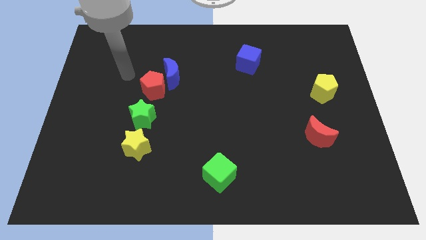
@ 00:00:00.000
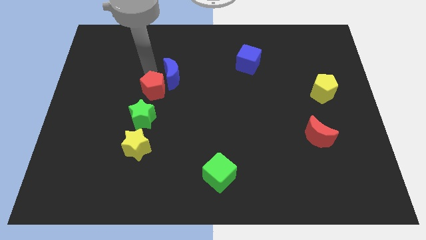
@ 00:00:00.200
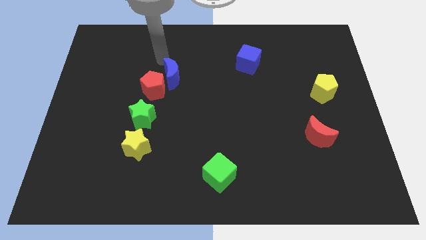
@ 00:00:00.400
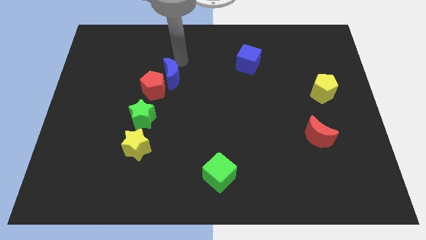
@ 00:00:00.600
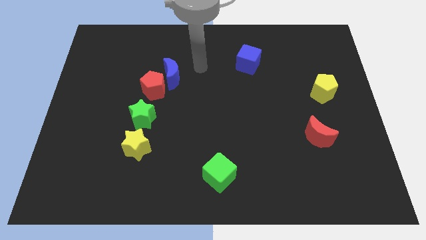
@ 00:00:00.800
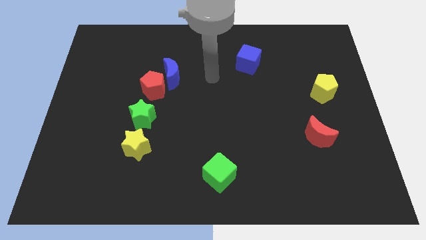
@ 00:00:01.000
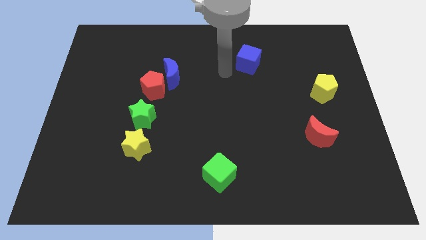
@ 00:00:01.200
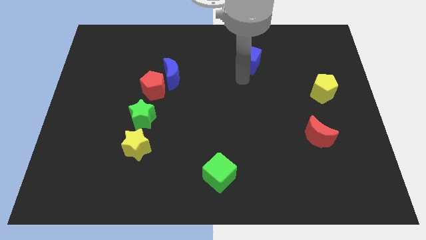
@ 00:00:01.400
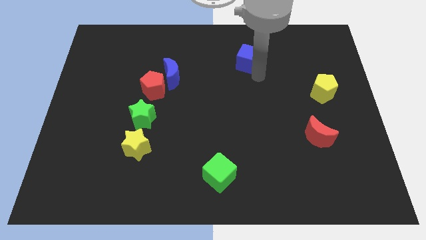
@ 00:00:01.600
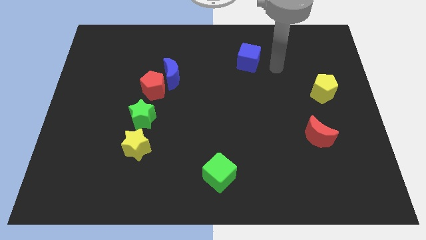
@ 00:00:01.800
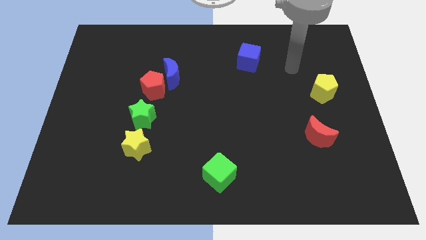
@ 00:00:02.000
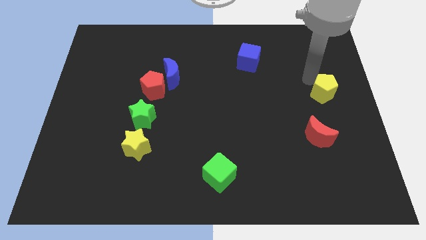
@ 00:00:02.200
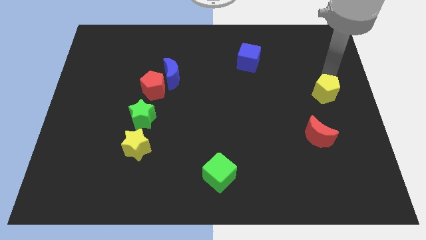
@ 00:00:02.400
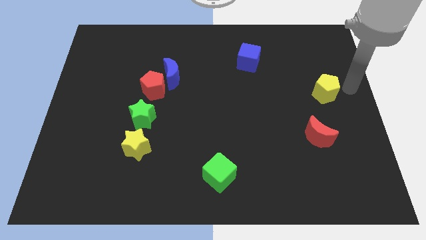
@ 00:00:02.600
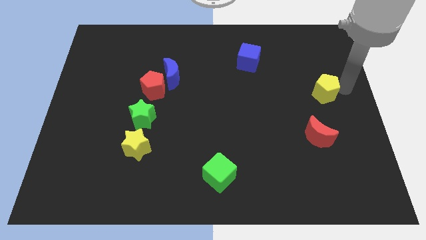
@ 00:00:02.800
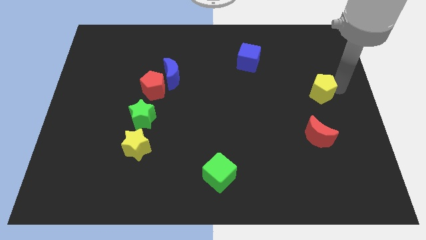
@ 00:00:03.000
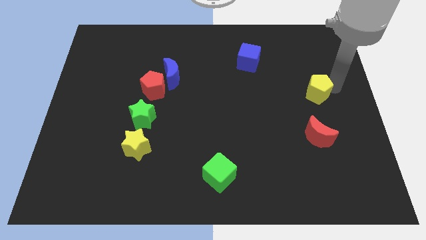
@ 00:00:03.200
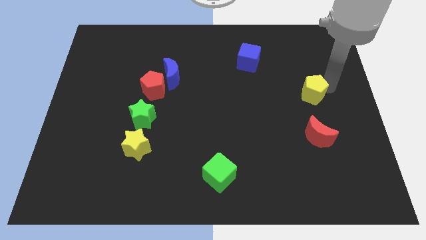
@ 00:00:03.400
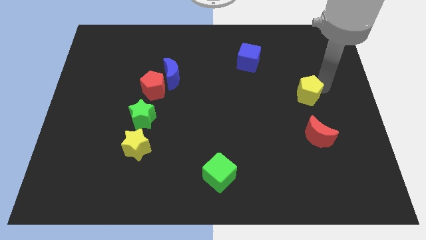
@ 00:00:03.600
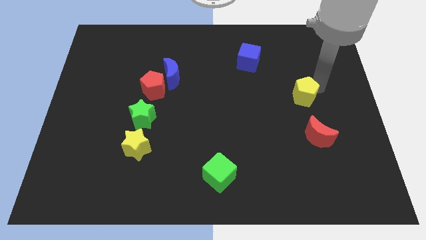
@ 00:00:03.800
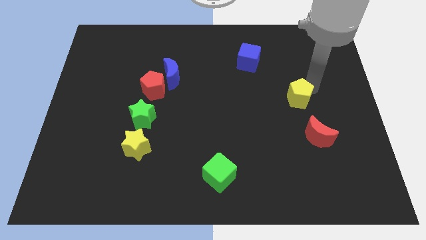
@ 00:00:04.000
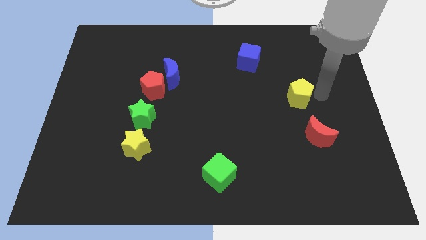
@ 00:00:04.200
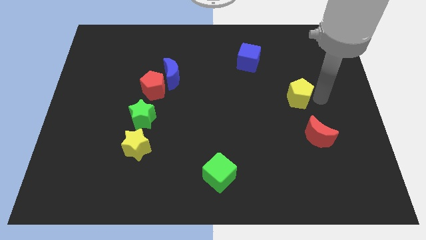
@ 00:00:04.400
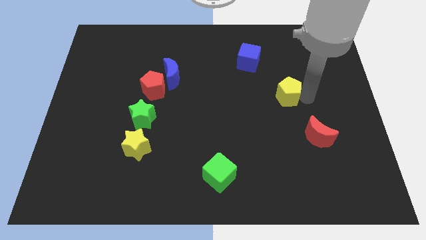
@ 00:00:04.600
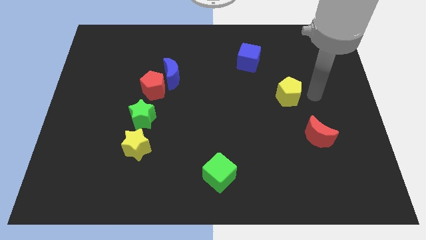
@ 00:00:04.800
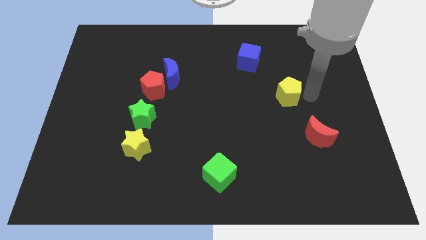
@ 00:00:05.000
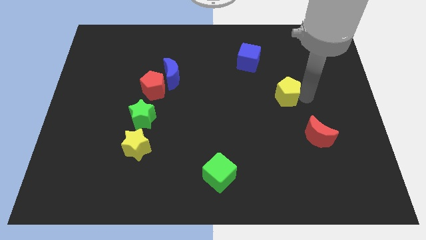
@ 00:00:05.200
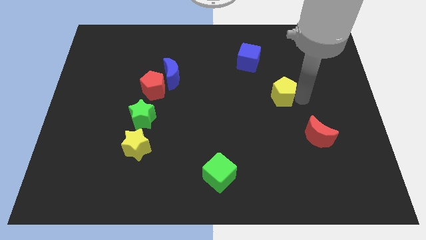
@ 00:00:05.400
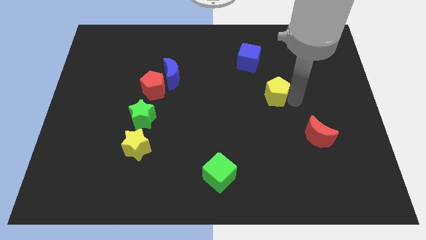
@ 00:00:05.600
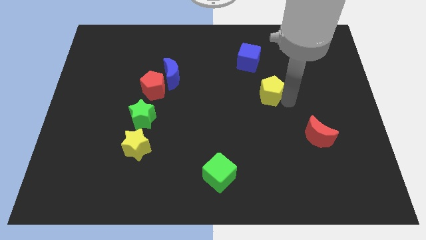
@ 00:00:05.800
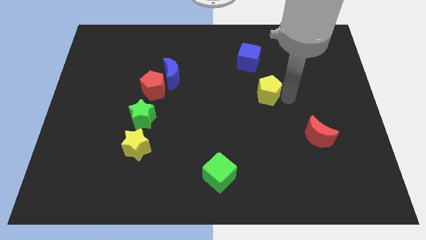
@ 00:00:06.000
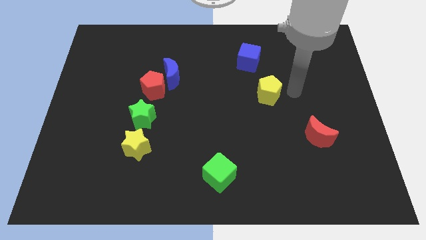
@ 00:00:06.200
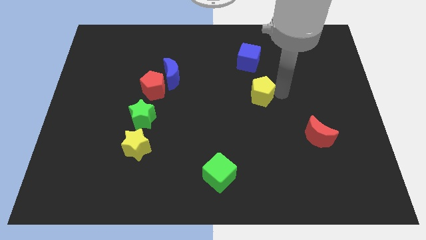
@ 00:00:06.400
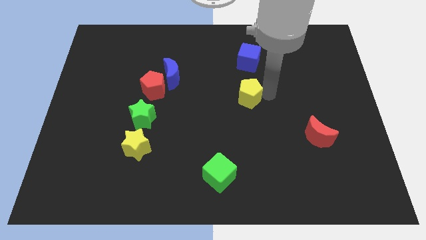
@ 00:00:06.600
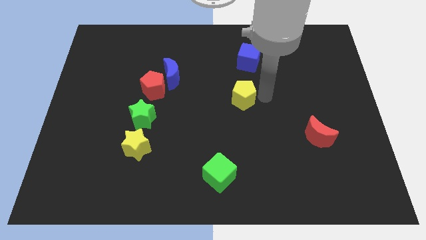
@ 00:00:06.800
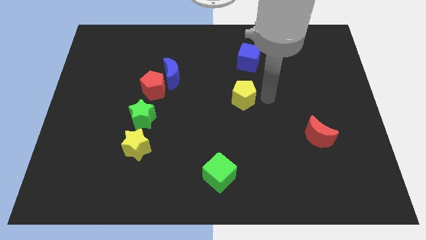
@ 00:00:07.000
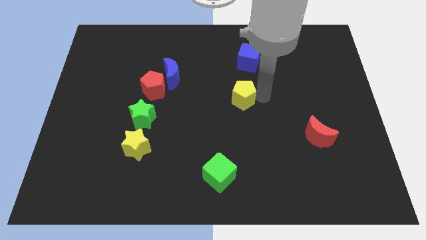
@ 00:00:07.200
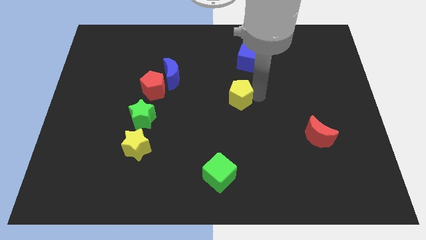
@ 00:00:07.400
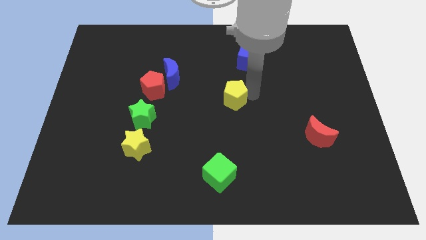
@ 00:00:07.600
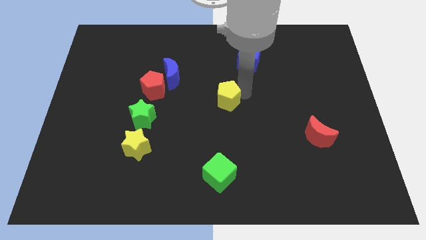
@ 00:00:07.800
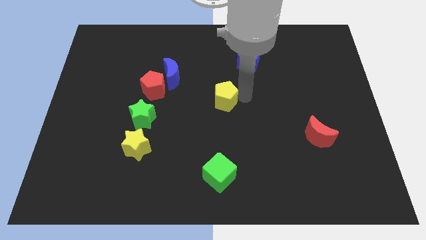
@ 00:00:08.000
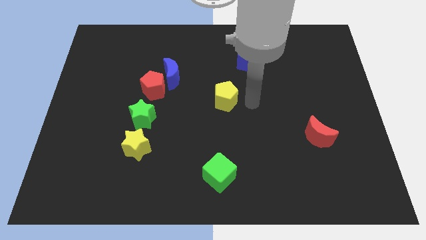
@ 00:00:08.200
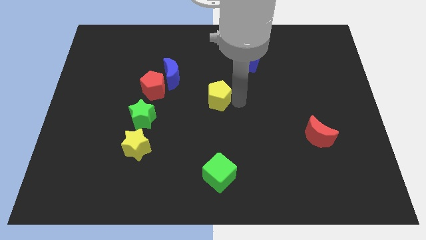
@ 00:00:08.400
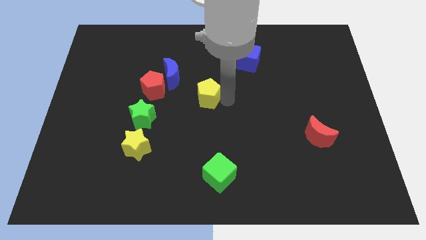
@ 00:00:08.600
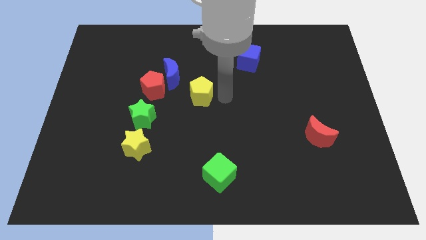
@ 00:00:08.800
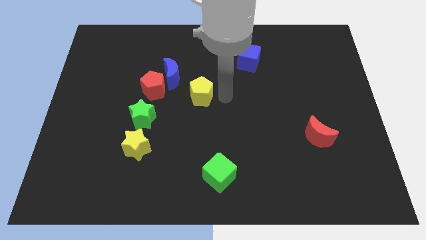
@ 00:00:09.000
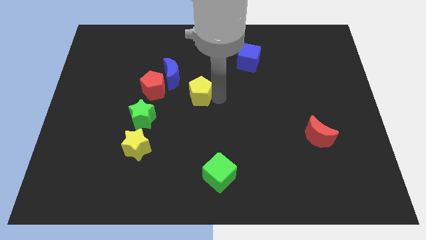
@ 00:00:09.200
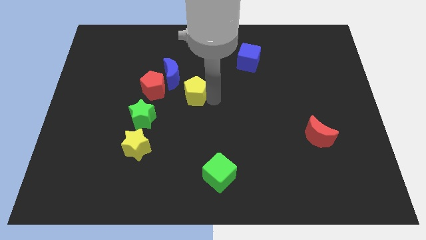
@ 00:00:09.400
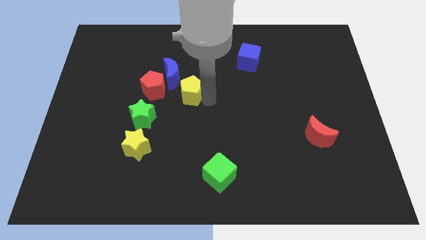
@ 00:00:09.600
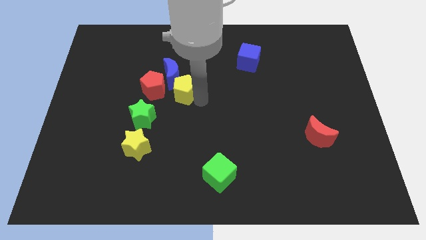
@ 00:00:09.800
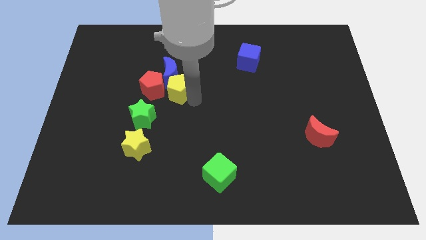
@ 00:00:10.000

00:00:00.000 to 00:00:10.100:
put the yellow pentagon to the red pentagon

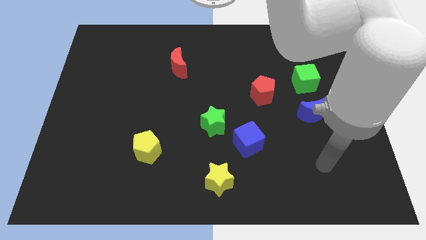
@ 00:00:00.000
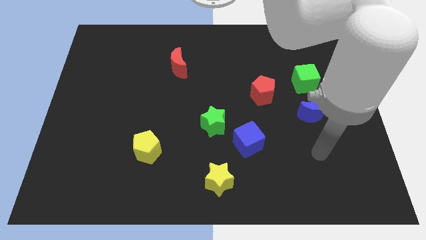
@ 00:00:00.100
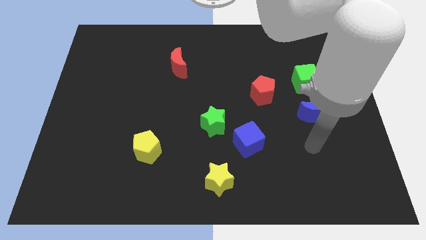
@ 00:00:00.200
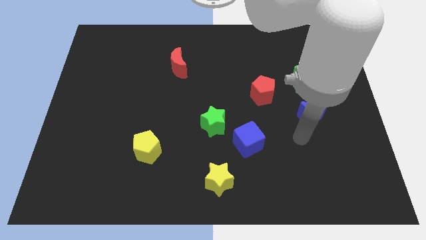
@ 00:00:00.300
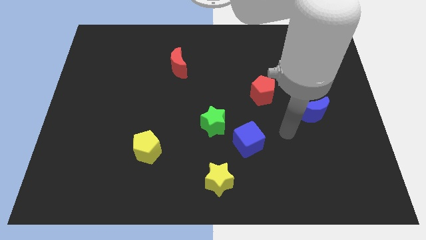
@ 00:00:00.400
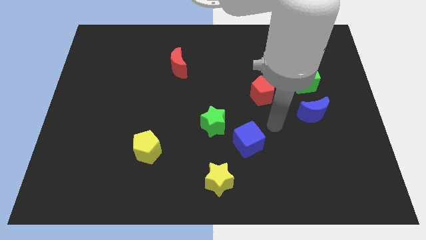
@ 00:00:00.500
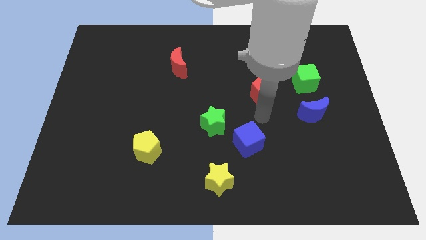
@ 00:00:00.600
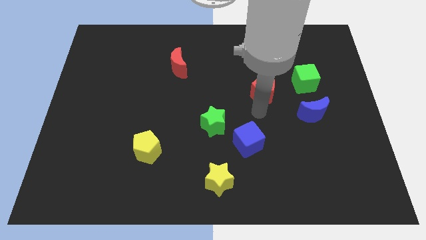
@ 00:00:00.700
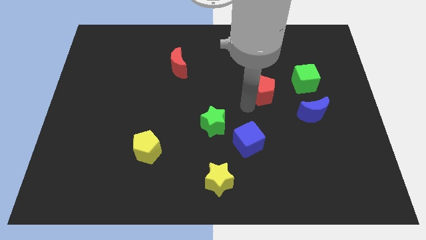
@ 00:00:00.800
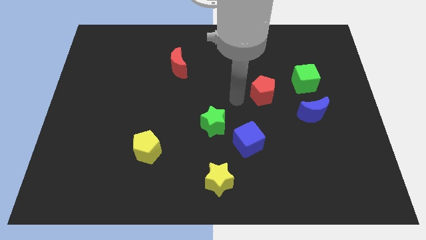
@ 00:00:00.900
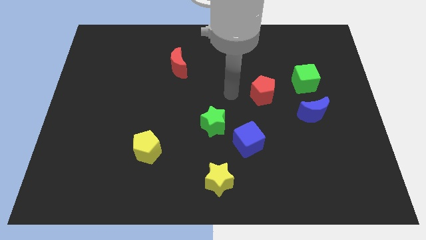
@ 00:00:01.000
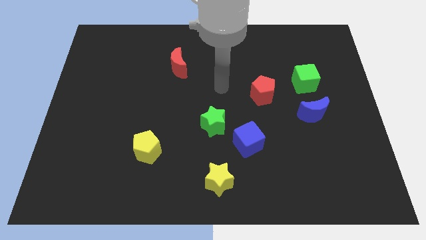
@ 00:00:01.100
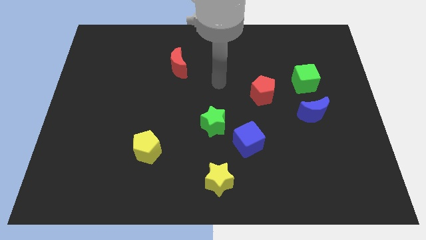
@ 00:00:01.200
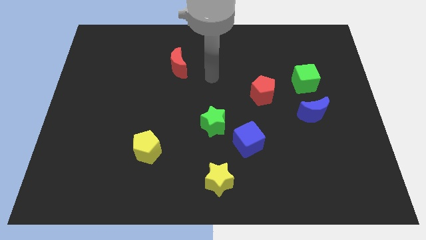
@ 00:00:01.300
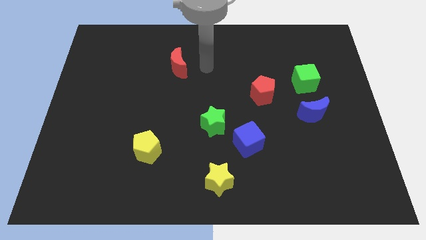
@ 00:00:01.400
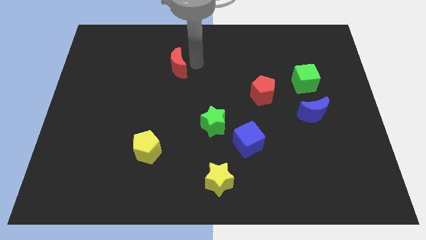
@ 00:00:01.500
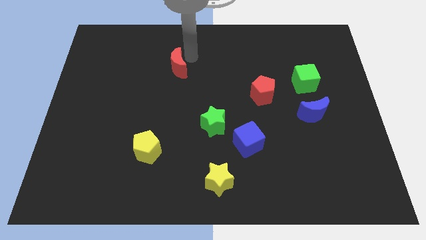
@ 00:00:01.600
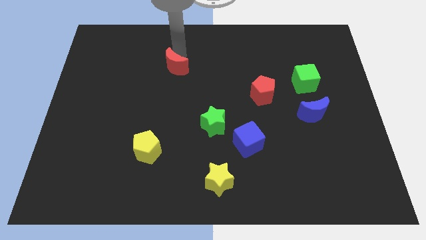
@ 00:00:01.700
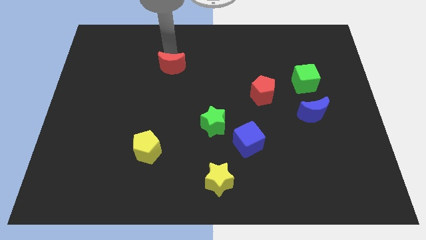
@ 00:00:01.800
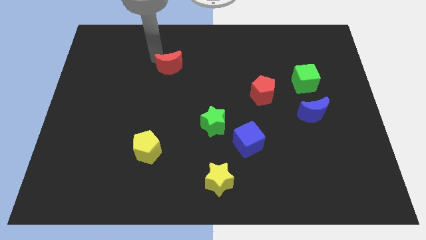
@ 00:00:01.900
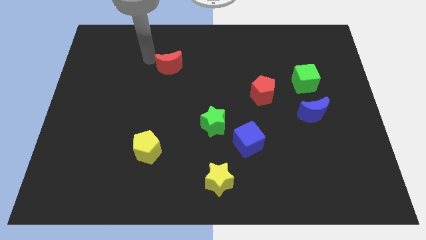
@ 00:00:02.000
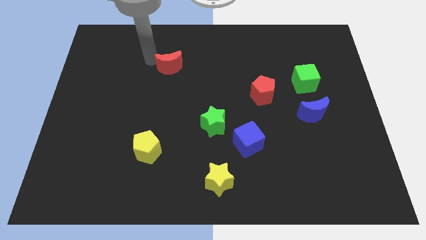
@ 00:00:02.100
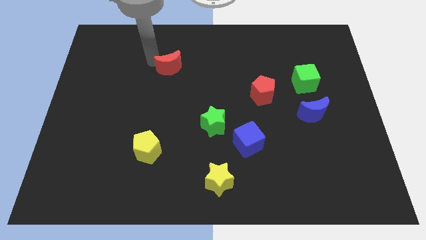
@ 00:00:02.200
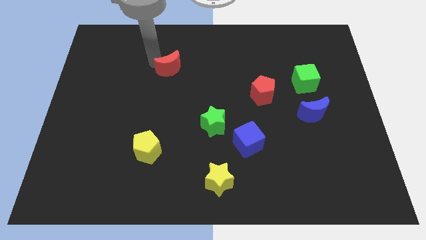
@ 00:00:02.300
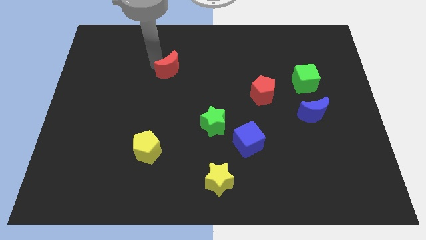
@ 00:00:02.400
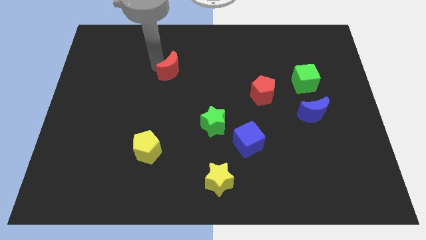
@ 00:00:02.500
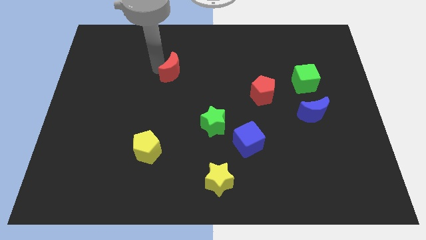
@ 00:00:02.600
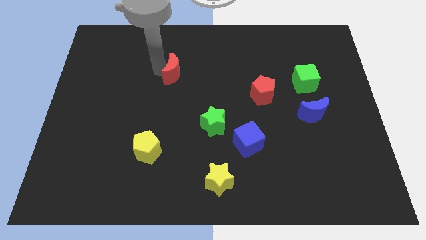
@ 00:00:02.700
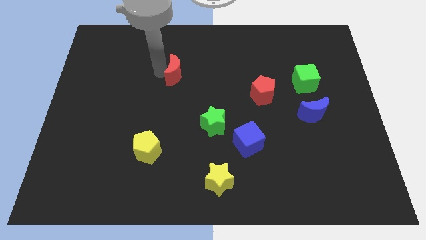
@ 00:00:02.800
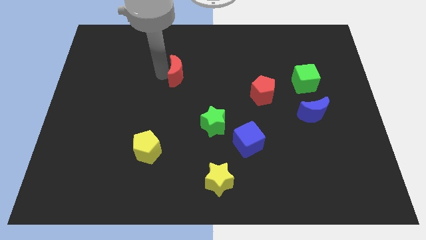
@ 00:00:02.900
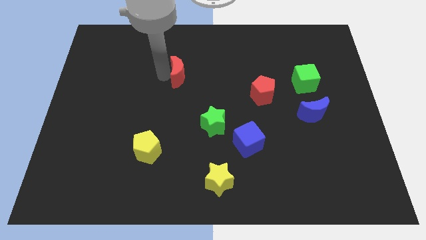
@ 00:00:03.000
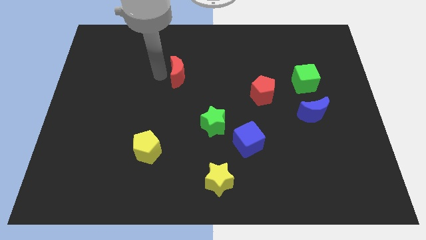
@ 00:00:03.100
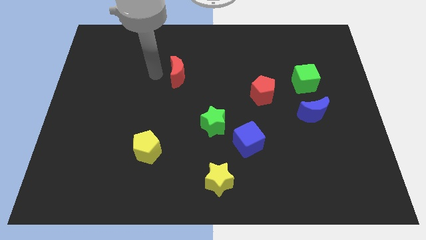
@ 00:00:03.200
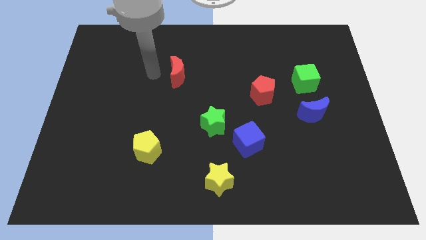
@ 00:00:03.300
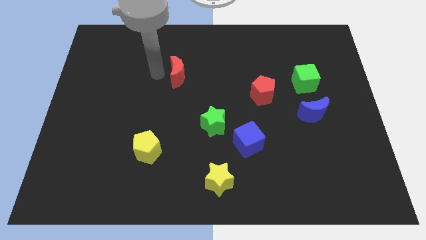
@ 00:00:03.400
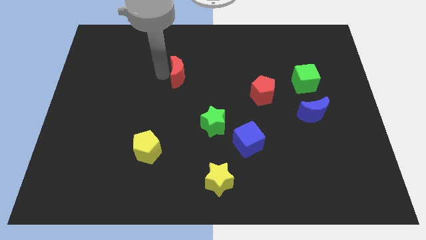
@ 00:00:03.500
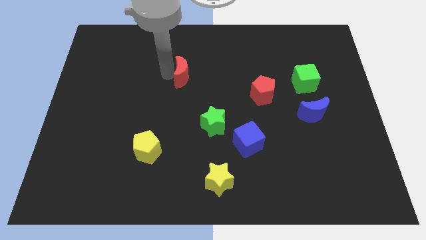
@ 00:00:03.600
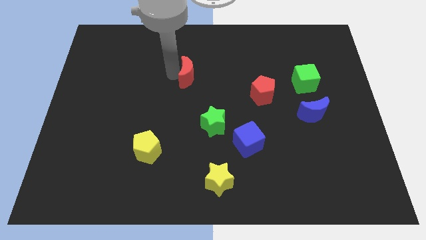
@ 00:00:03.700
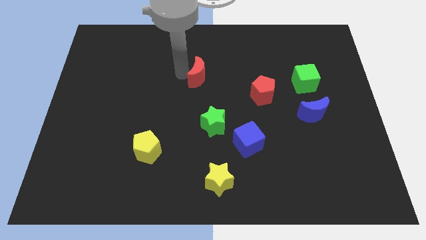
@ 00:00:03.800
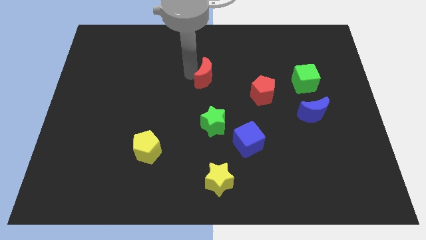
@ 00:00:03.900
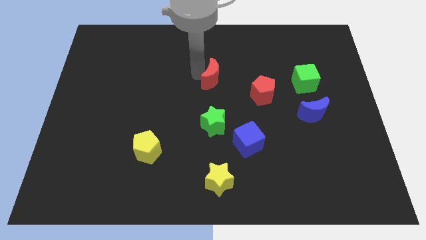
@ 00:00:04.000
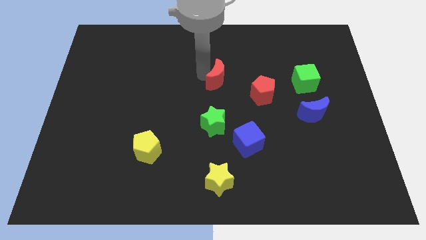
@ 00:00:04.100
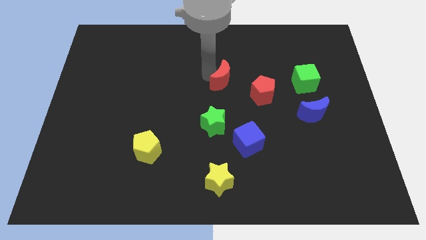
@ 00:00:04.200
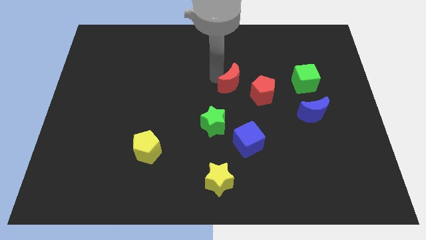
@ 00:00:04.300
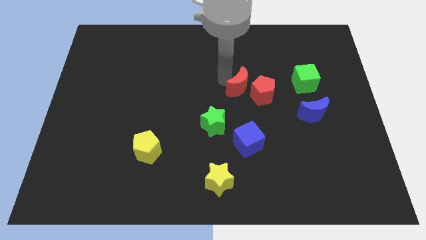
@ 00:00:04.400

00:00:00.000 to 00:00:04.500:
slide the red moon close to the red pentagon
